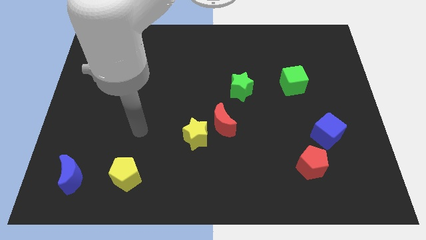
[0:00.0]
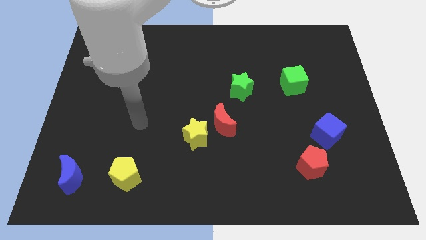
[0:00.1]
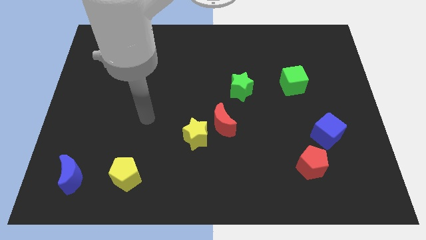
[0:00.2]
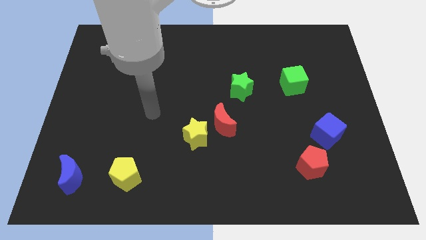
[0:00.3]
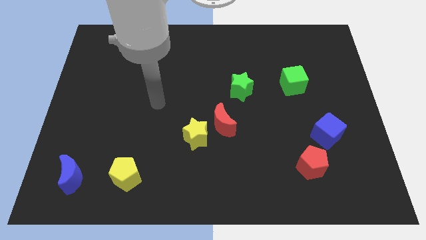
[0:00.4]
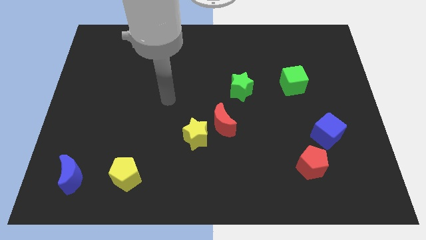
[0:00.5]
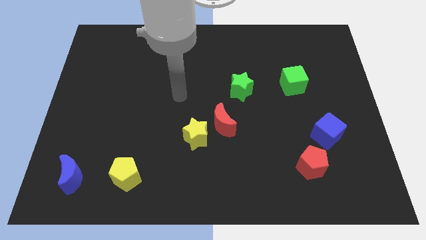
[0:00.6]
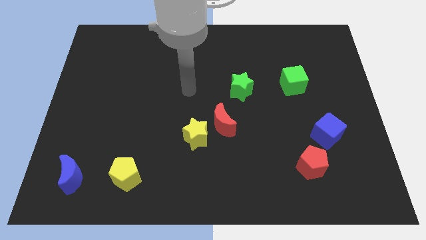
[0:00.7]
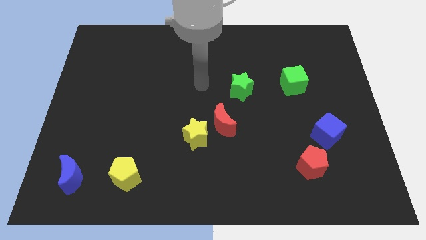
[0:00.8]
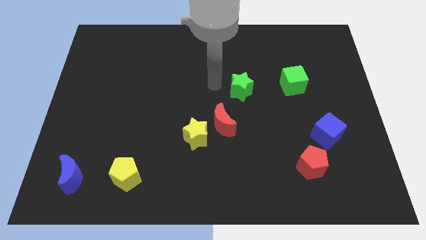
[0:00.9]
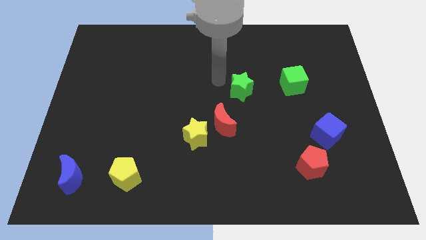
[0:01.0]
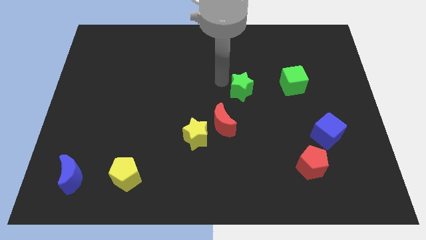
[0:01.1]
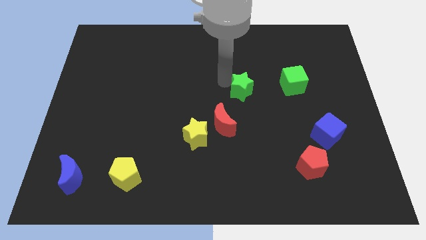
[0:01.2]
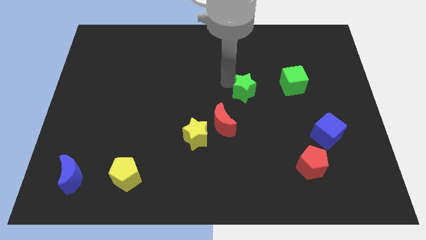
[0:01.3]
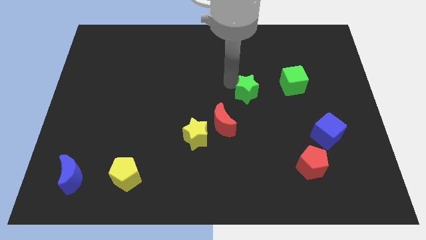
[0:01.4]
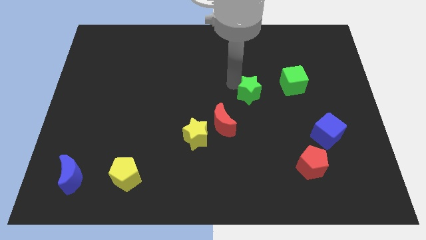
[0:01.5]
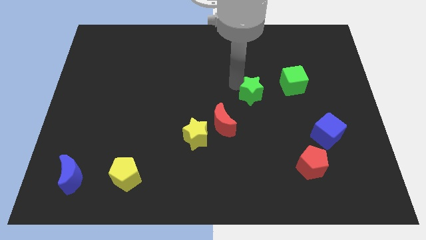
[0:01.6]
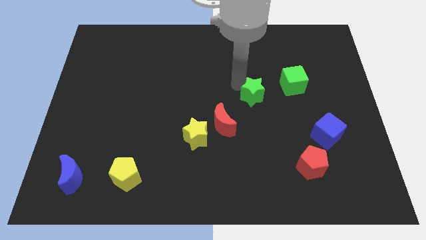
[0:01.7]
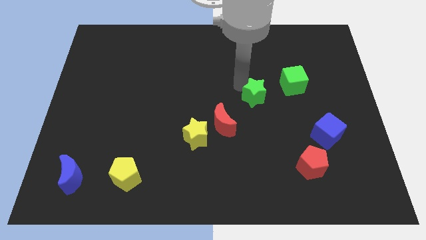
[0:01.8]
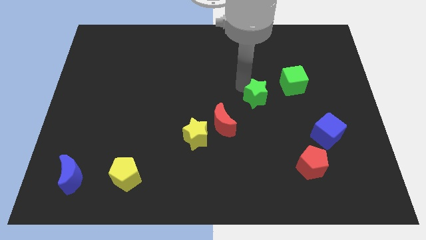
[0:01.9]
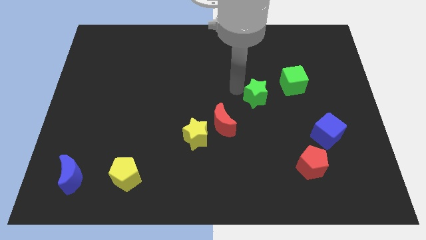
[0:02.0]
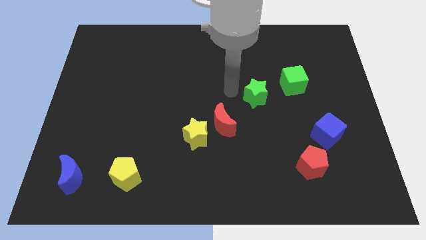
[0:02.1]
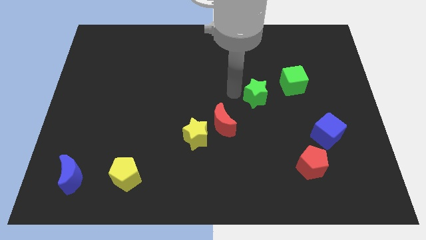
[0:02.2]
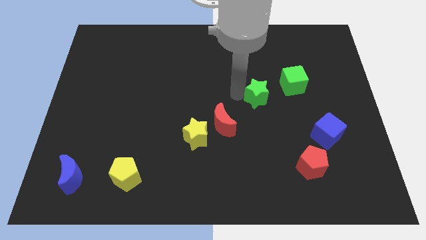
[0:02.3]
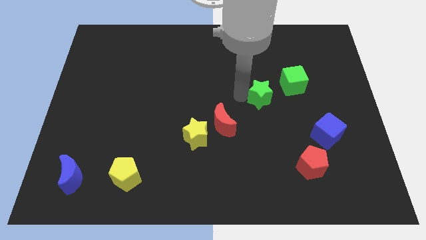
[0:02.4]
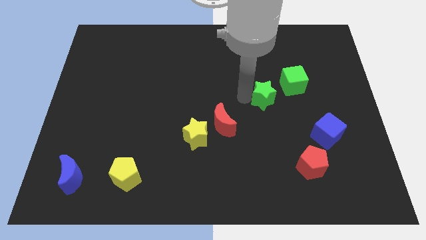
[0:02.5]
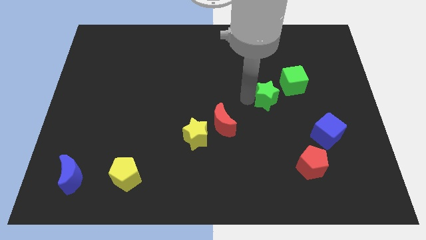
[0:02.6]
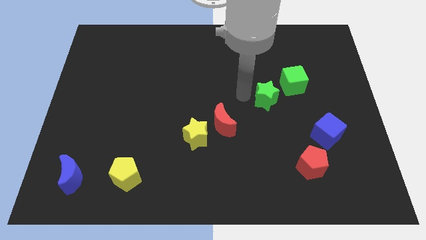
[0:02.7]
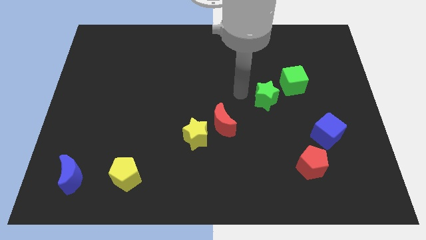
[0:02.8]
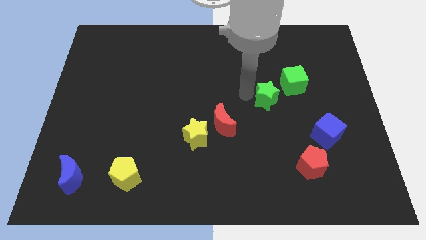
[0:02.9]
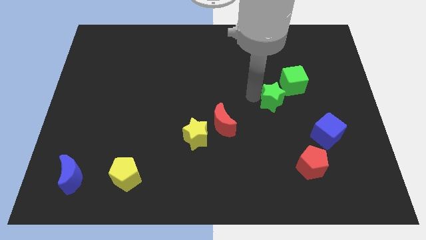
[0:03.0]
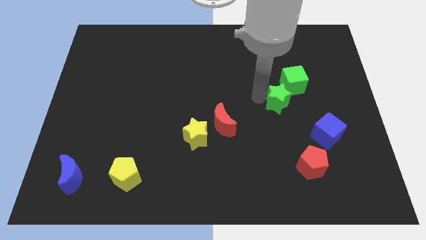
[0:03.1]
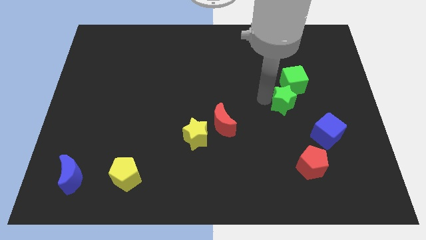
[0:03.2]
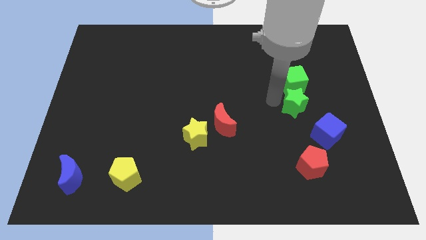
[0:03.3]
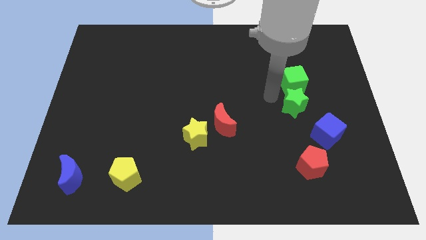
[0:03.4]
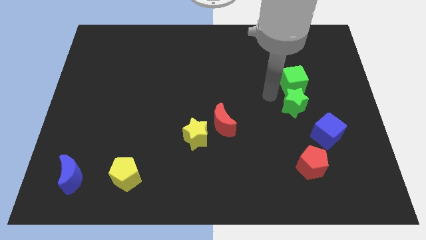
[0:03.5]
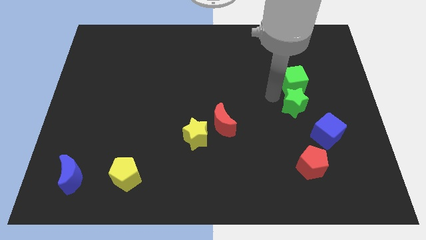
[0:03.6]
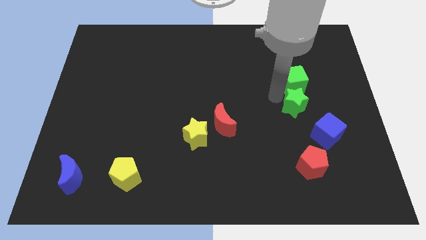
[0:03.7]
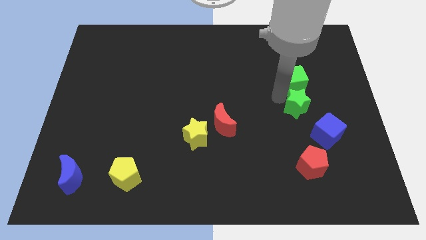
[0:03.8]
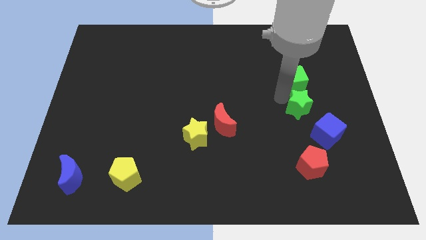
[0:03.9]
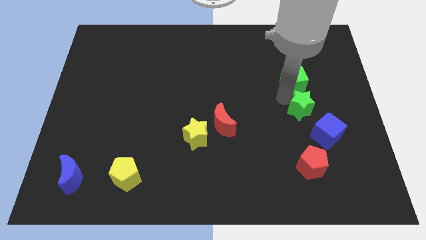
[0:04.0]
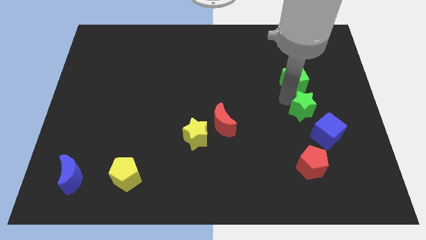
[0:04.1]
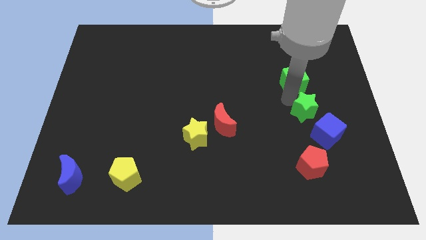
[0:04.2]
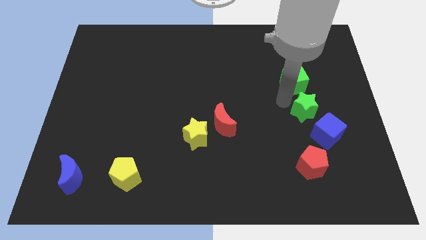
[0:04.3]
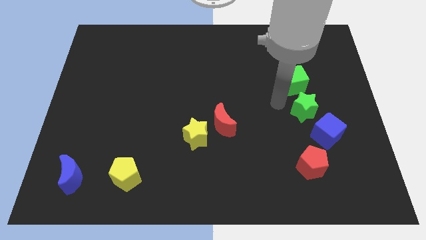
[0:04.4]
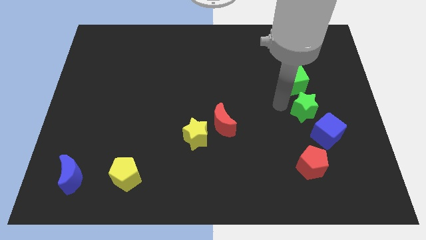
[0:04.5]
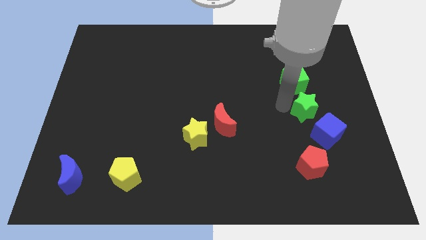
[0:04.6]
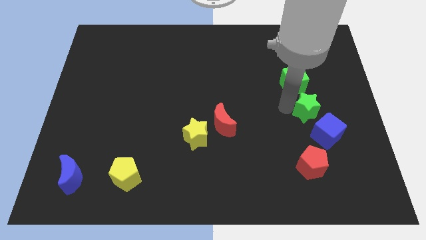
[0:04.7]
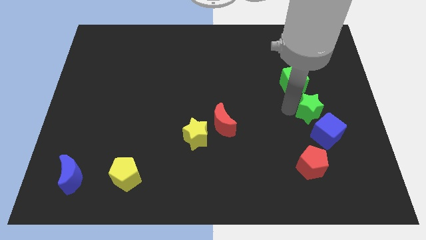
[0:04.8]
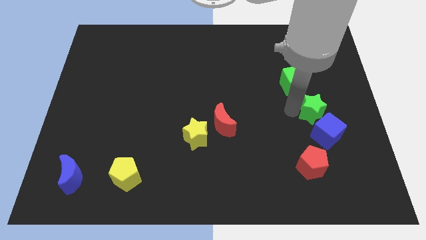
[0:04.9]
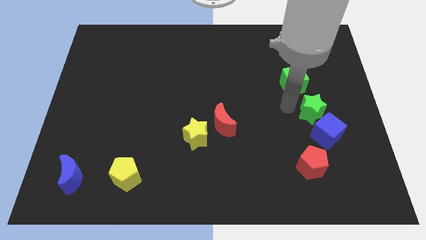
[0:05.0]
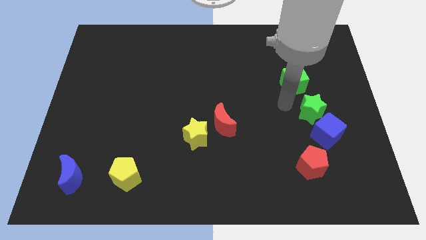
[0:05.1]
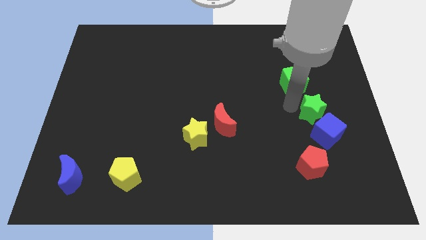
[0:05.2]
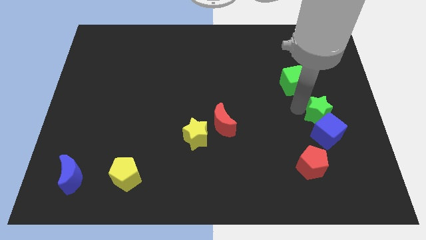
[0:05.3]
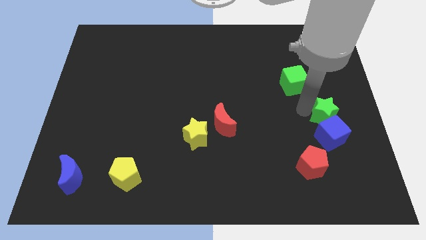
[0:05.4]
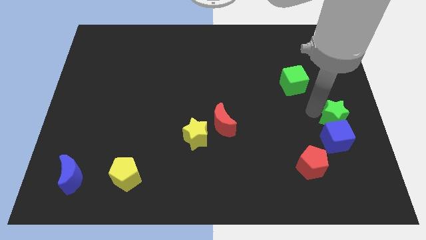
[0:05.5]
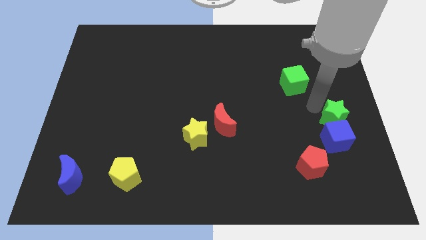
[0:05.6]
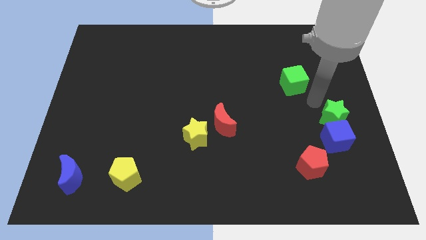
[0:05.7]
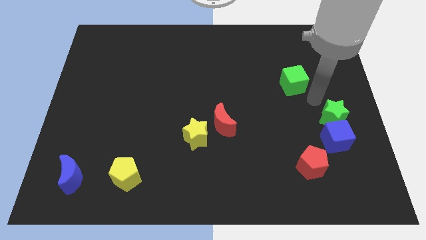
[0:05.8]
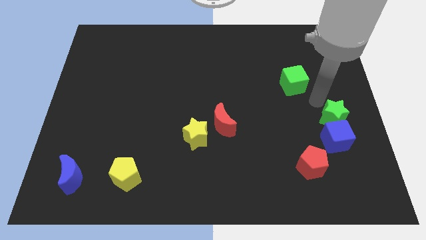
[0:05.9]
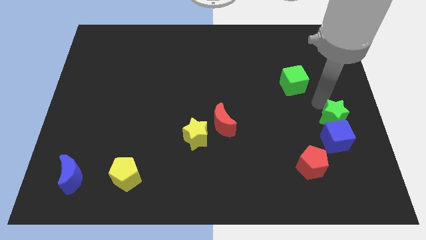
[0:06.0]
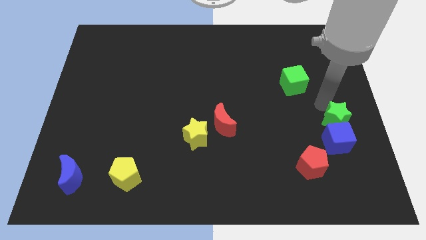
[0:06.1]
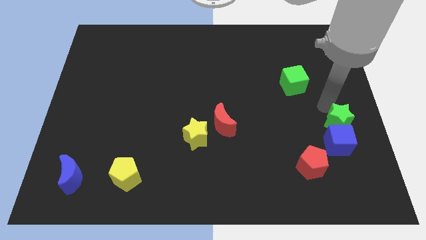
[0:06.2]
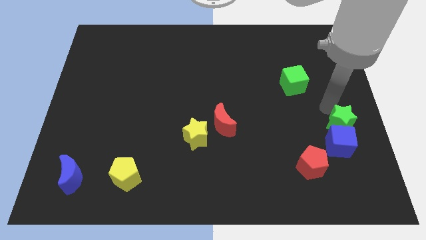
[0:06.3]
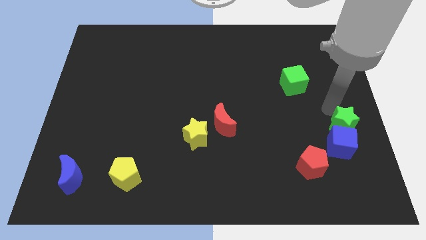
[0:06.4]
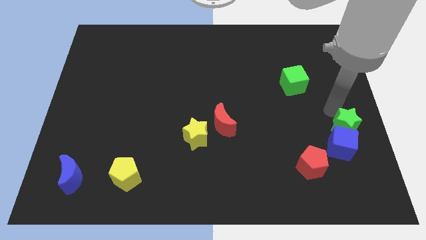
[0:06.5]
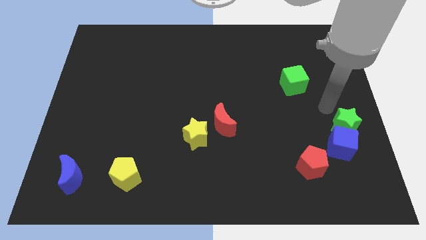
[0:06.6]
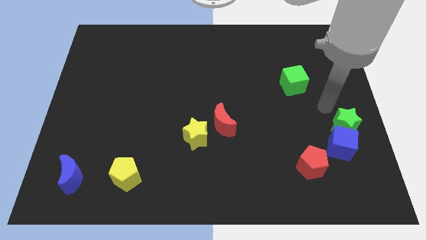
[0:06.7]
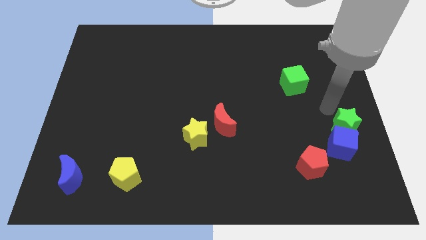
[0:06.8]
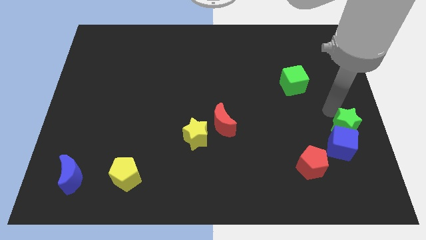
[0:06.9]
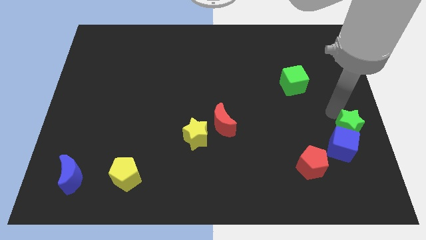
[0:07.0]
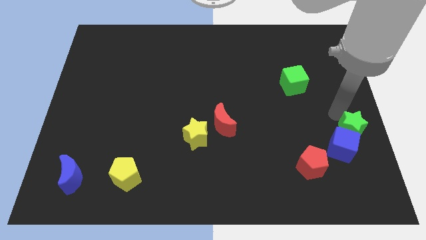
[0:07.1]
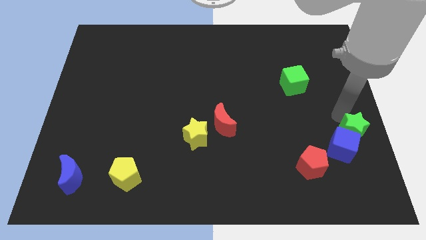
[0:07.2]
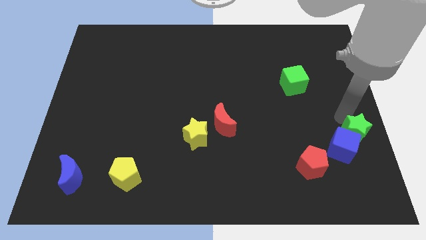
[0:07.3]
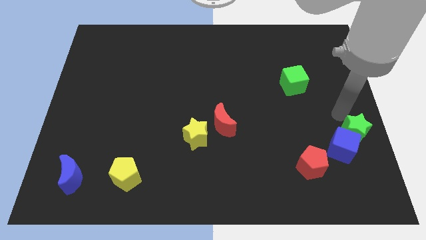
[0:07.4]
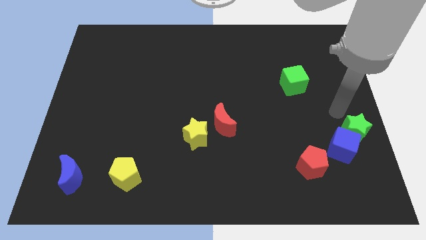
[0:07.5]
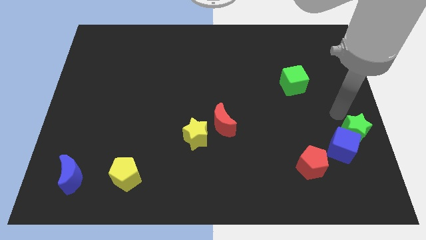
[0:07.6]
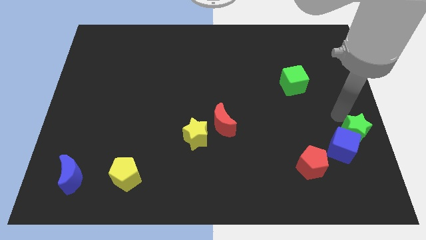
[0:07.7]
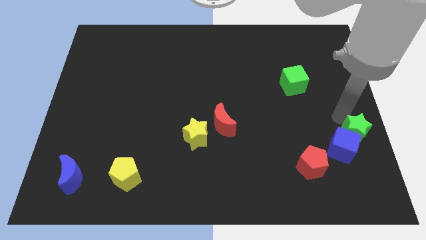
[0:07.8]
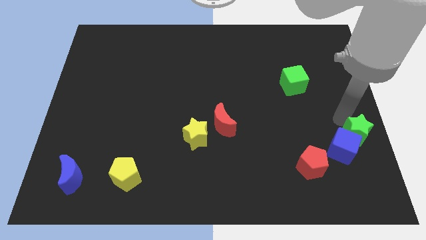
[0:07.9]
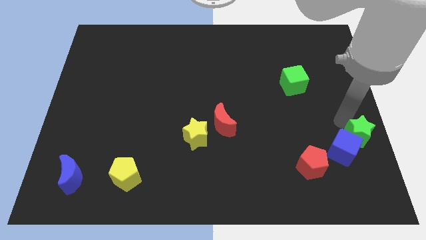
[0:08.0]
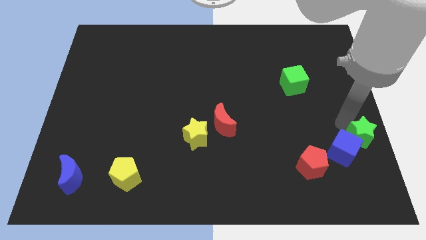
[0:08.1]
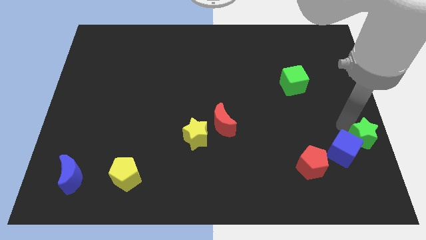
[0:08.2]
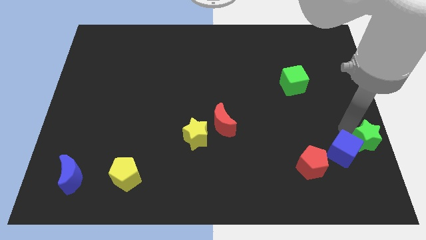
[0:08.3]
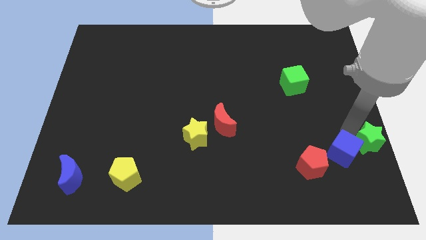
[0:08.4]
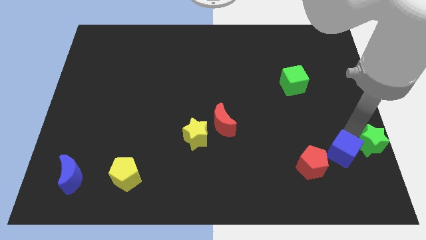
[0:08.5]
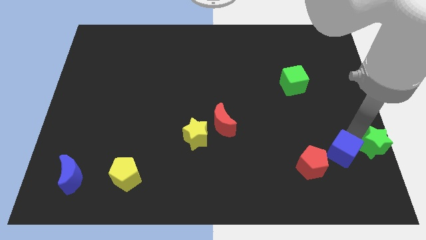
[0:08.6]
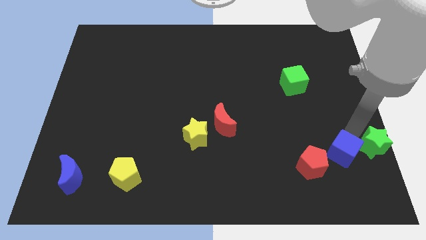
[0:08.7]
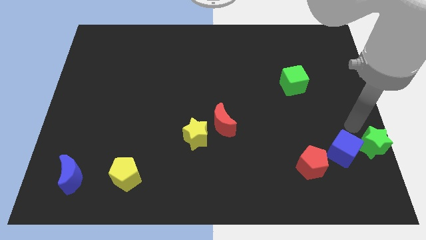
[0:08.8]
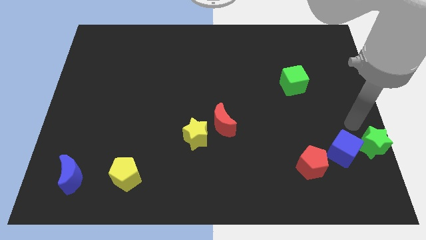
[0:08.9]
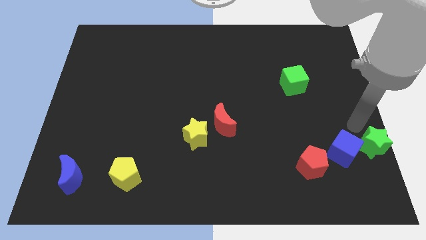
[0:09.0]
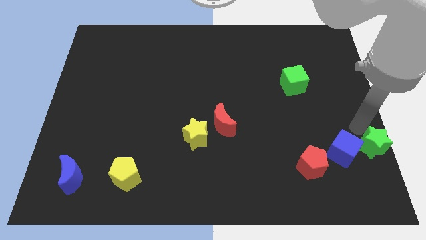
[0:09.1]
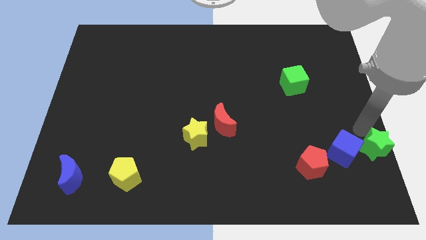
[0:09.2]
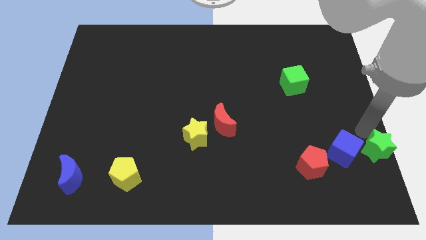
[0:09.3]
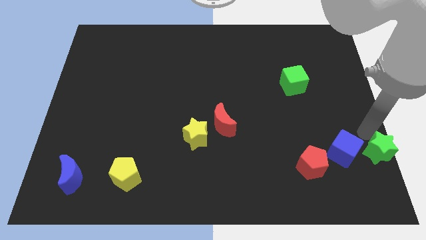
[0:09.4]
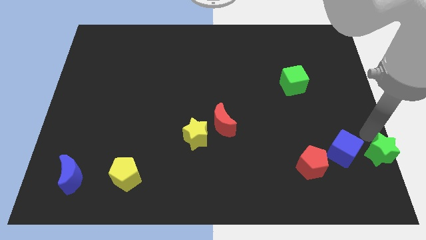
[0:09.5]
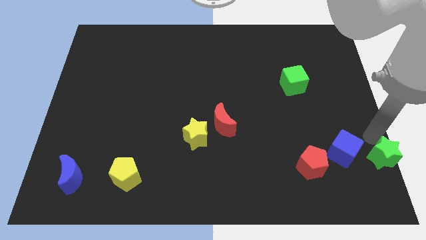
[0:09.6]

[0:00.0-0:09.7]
move the green star to the bottom right
